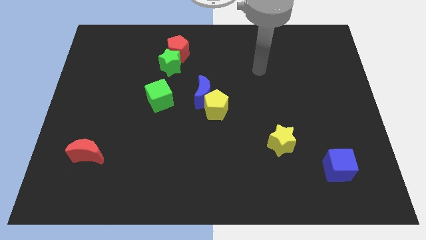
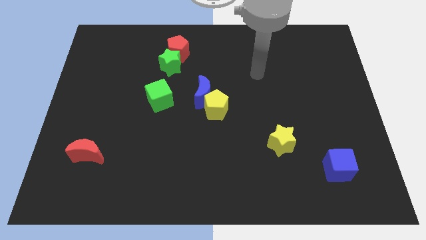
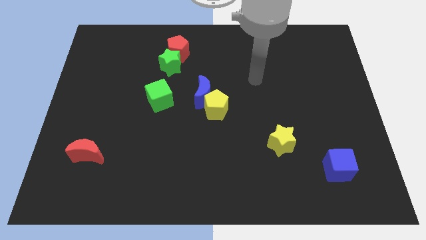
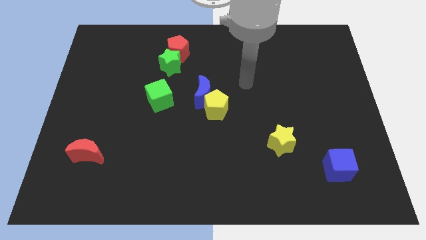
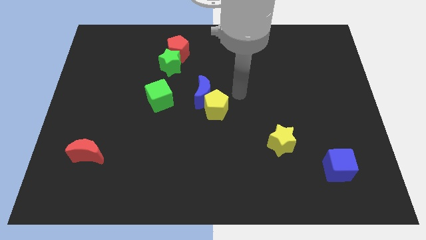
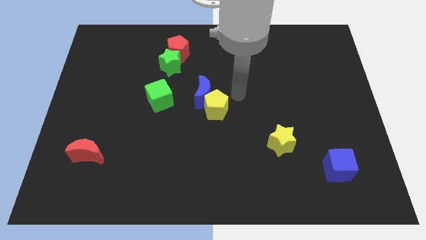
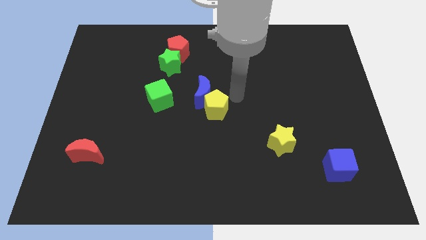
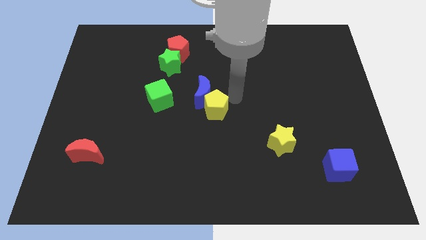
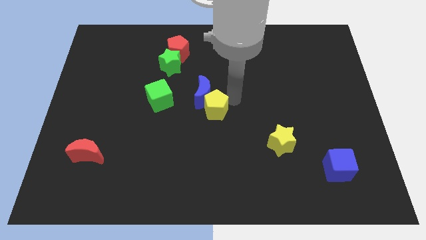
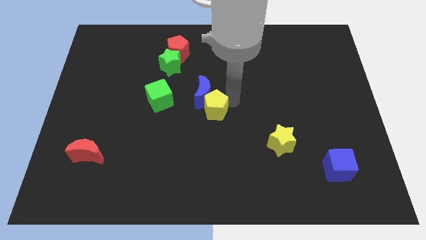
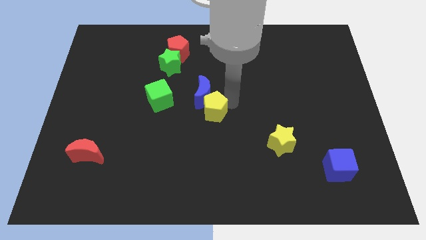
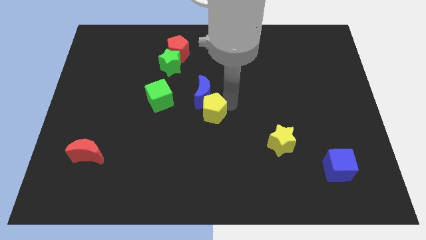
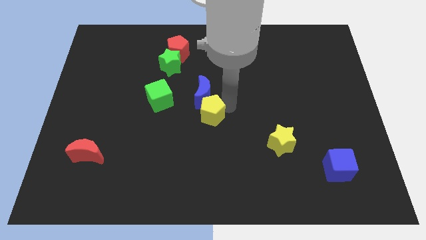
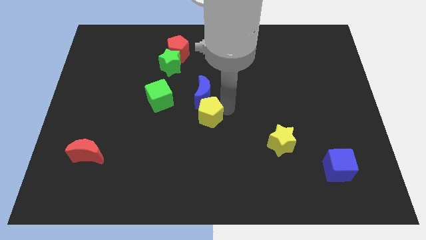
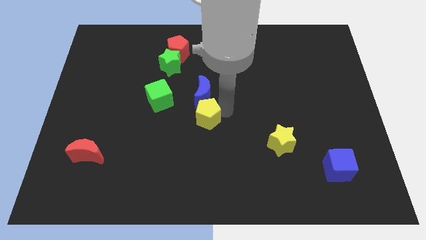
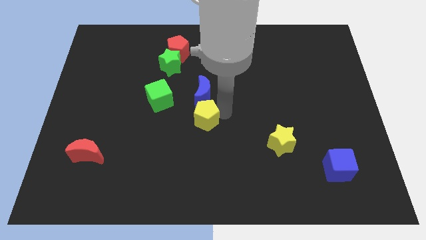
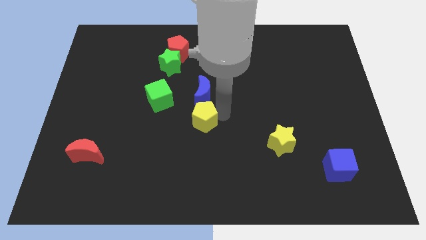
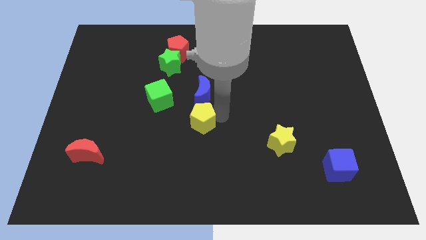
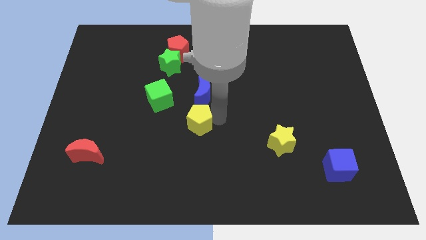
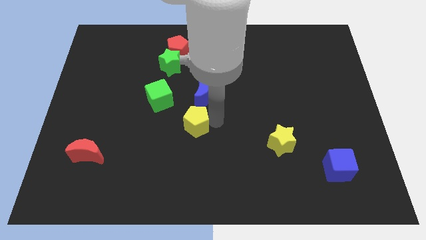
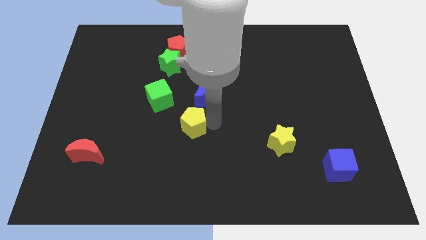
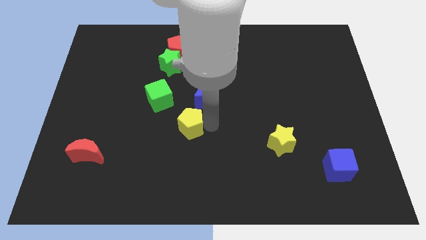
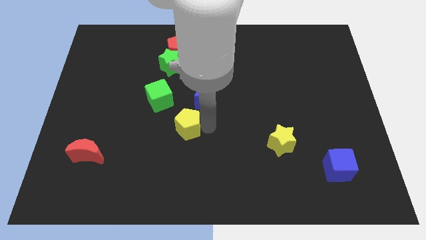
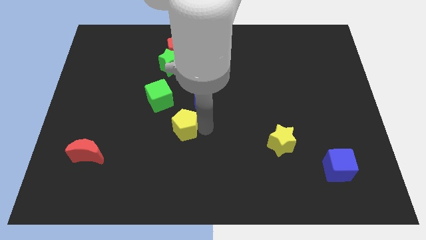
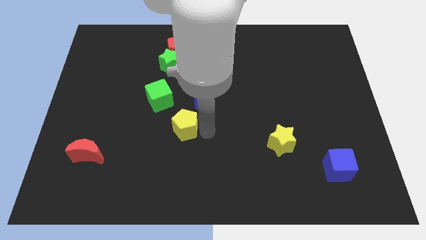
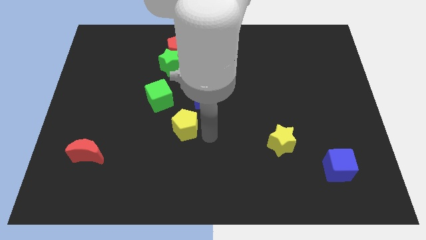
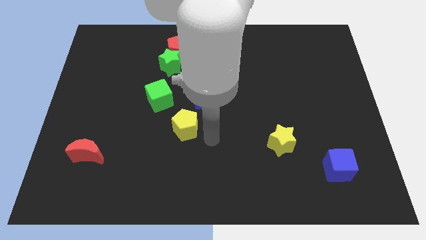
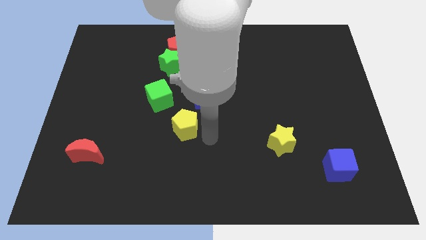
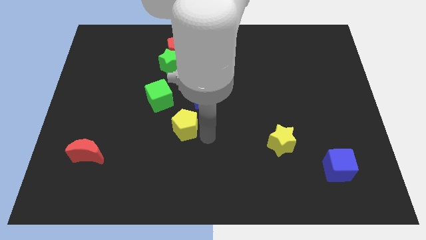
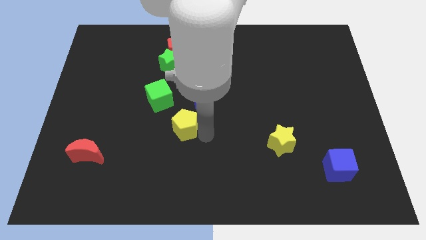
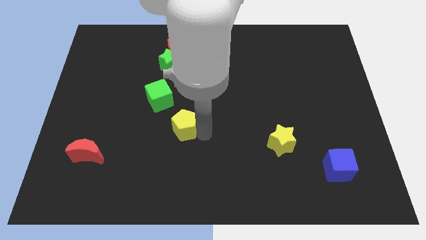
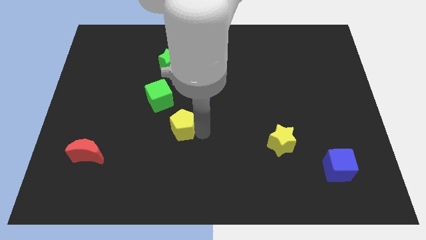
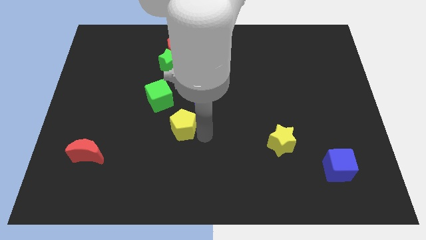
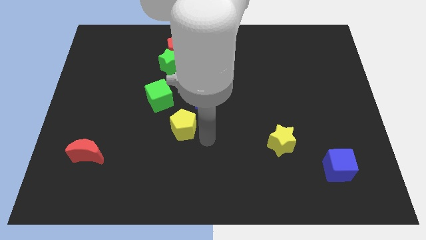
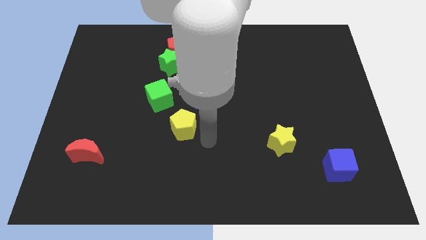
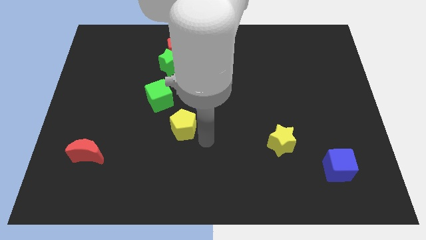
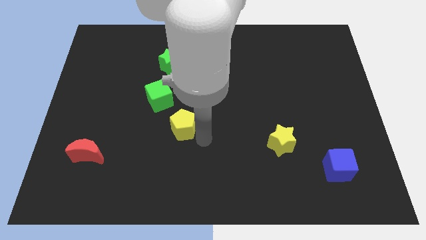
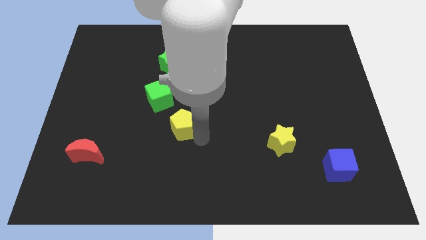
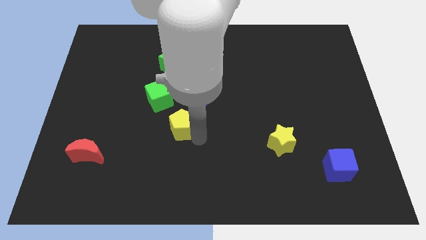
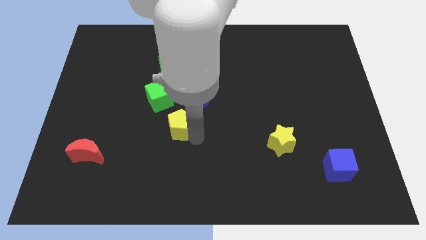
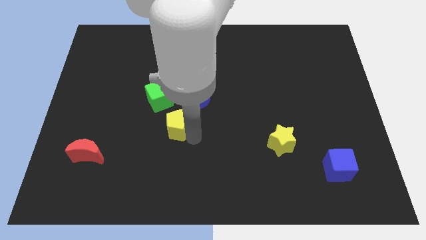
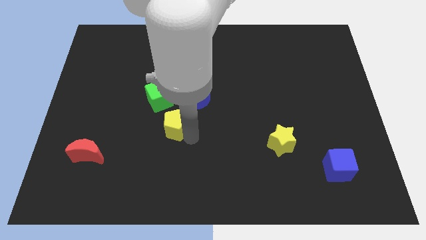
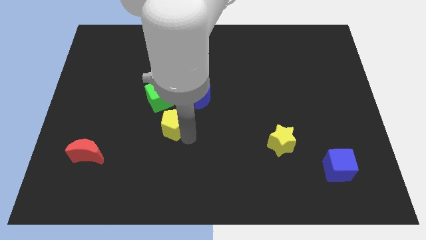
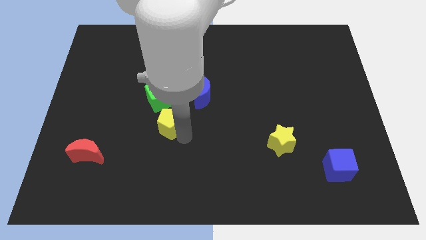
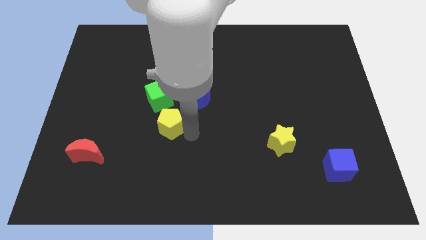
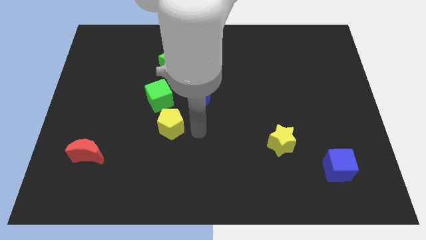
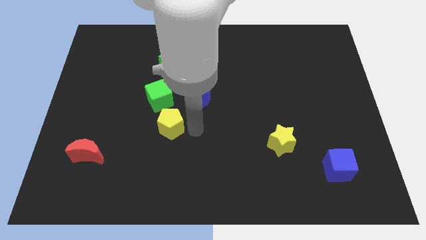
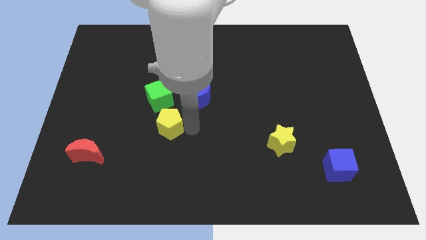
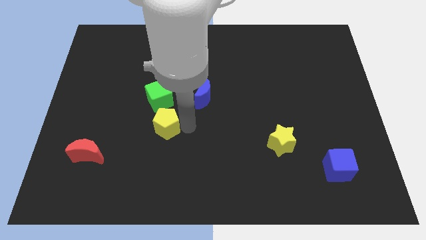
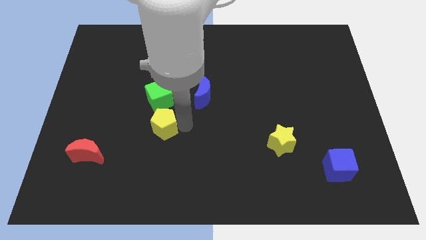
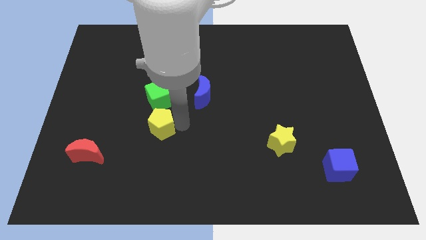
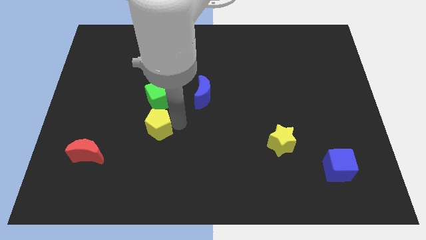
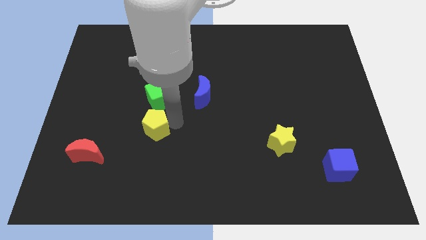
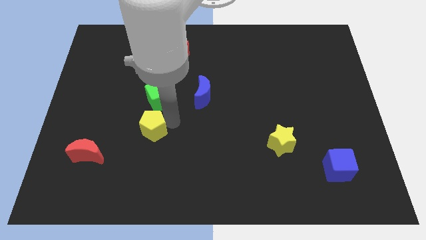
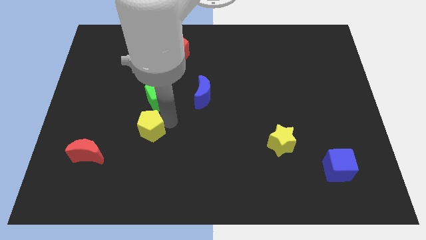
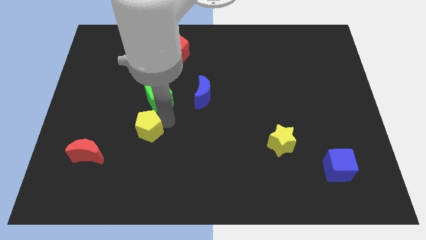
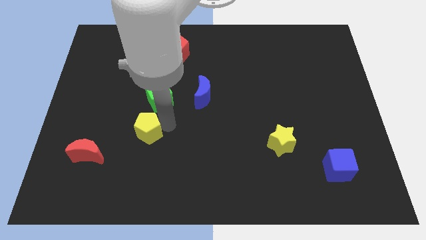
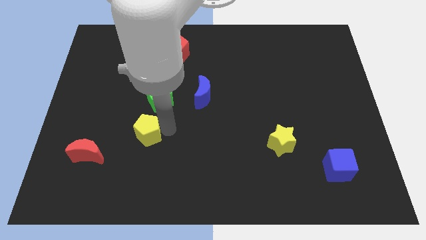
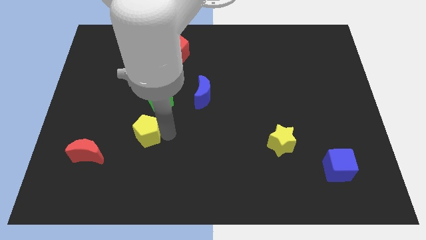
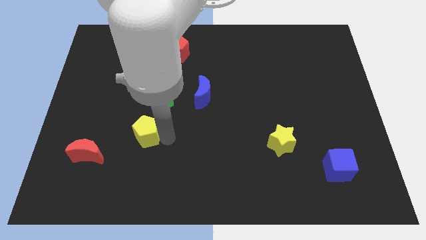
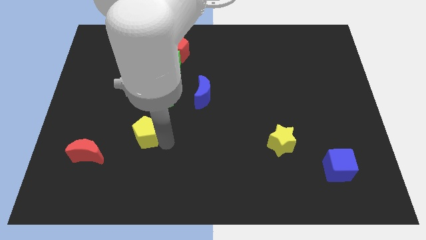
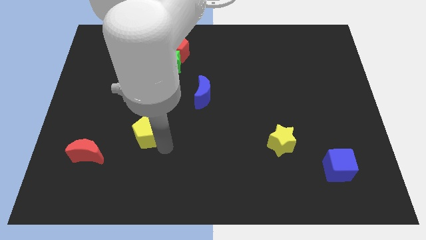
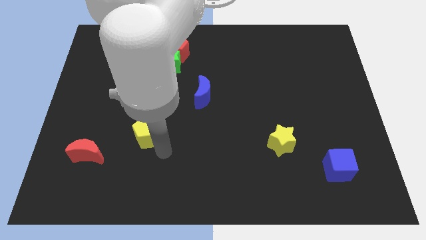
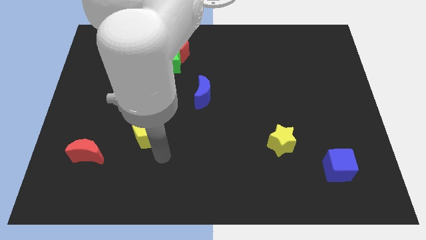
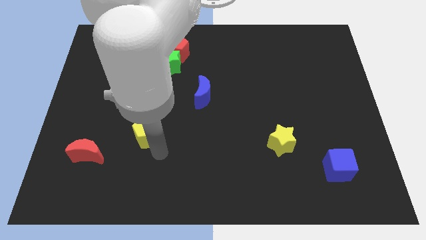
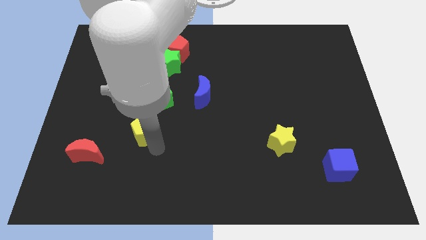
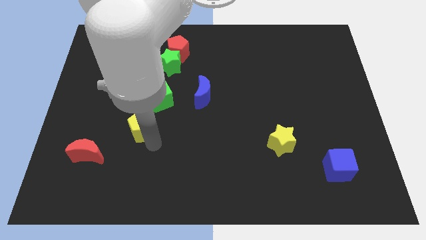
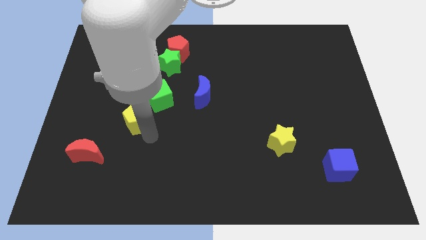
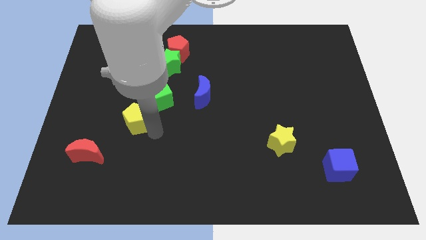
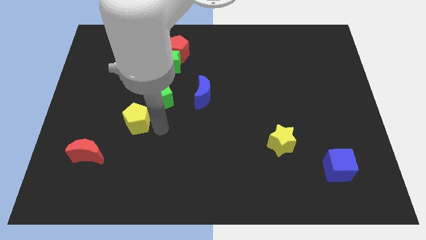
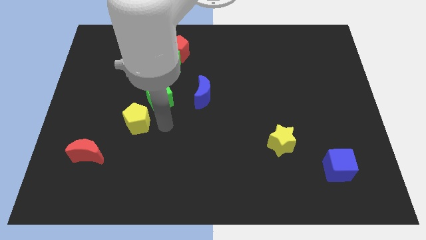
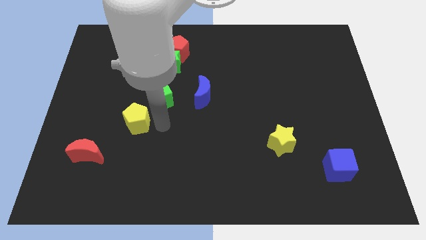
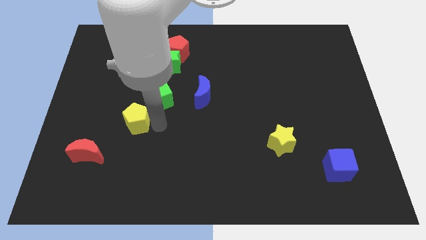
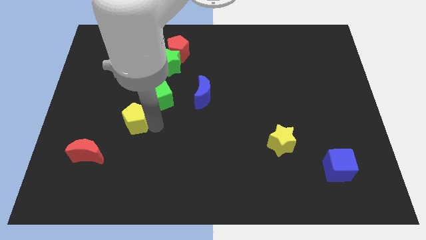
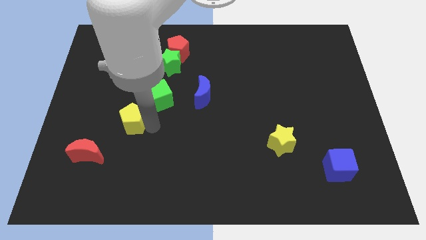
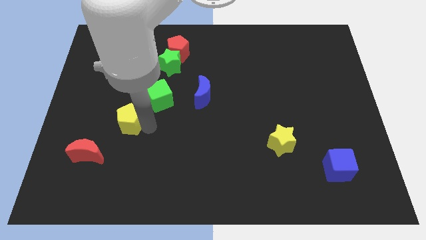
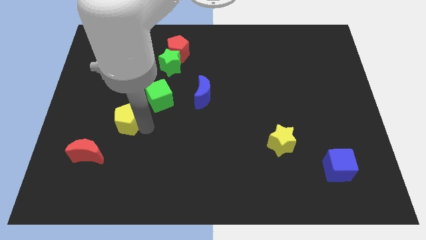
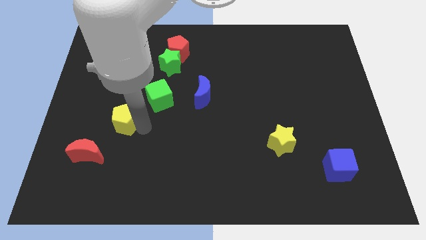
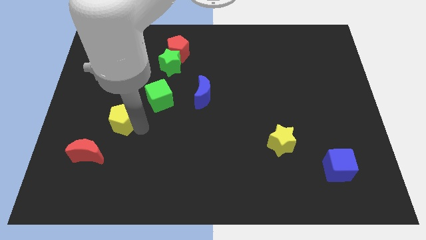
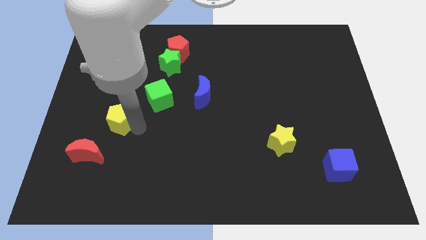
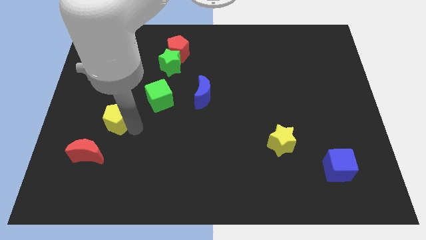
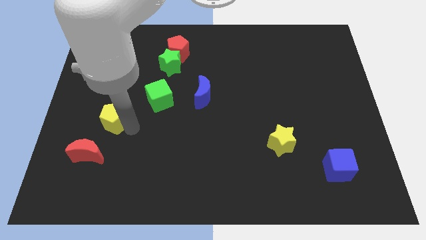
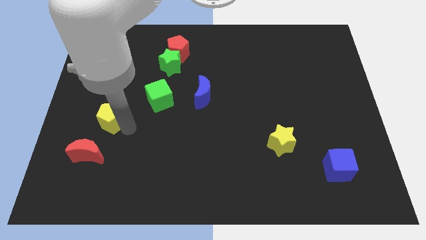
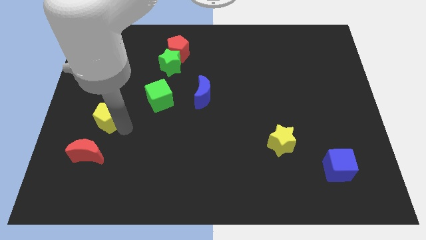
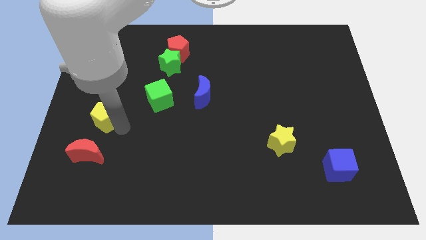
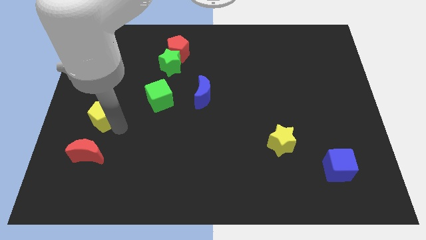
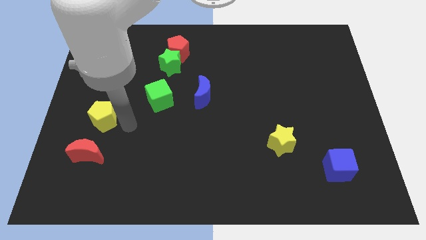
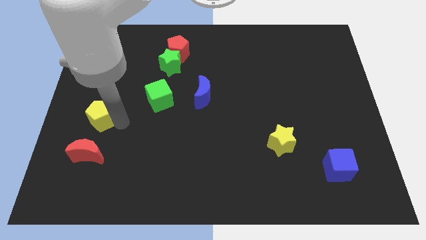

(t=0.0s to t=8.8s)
push the yellow pentagon to the left side
